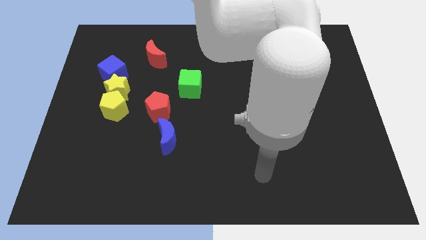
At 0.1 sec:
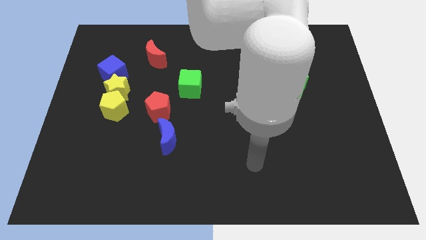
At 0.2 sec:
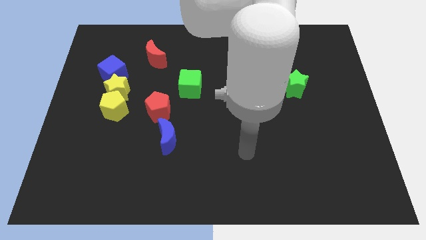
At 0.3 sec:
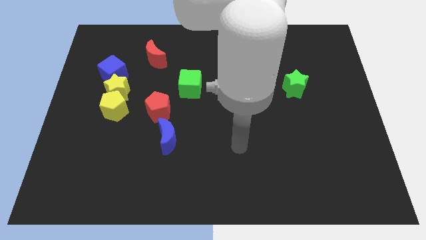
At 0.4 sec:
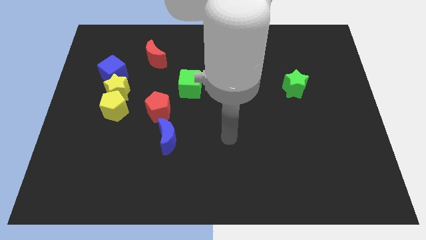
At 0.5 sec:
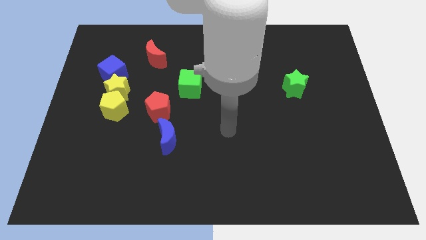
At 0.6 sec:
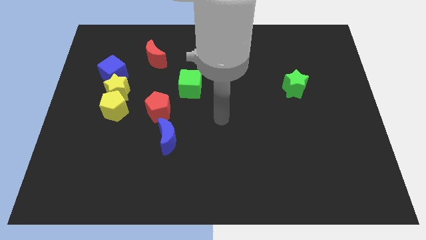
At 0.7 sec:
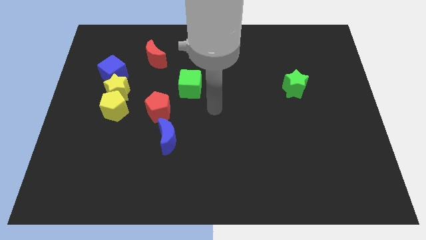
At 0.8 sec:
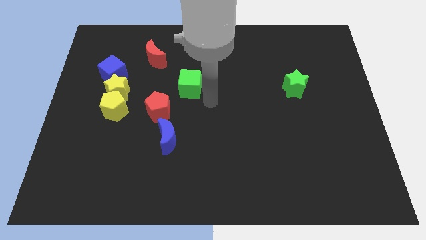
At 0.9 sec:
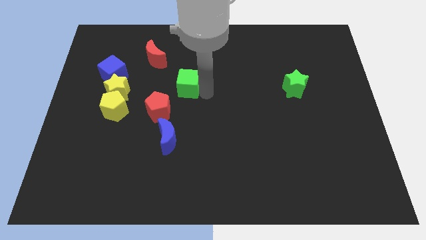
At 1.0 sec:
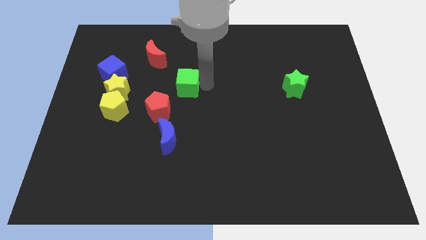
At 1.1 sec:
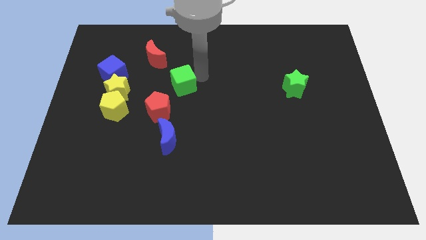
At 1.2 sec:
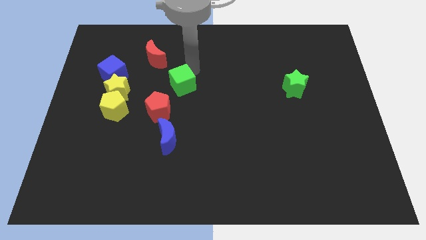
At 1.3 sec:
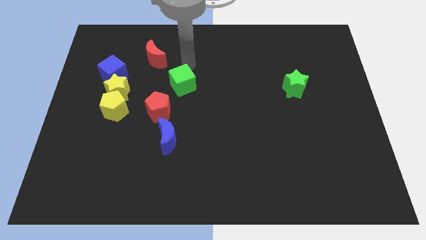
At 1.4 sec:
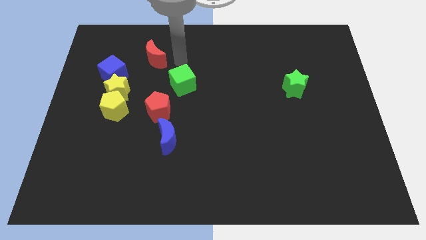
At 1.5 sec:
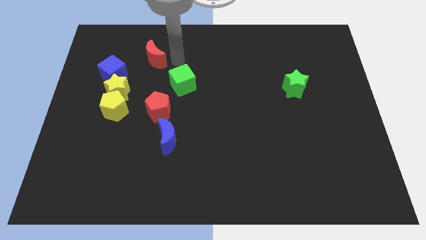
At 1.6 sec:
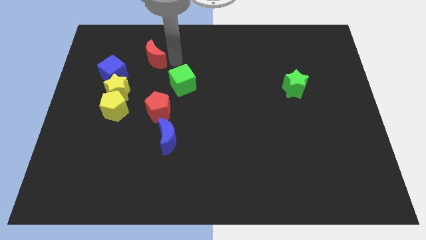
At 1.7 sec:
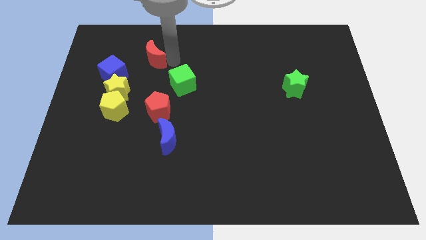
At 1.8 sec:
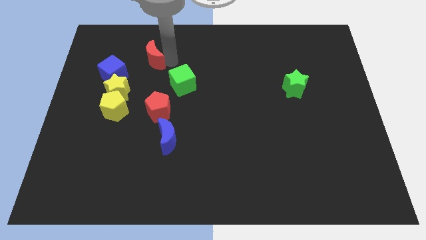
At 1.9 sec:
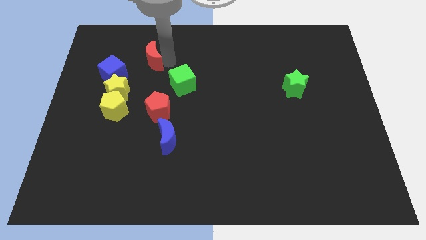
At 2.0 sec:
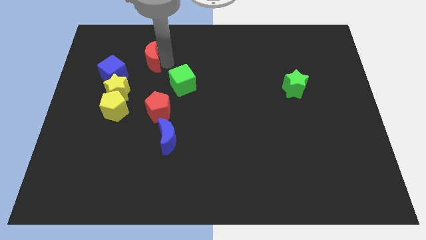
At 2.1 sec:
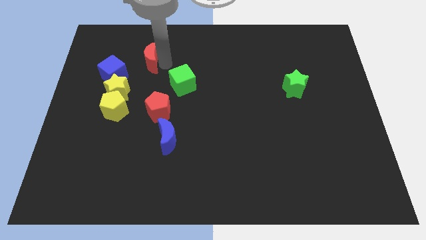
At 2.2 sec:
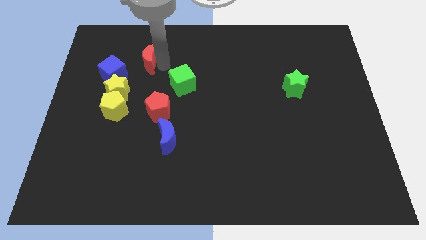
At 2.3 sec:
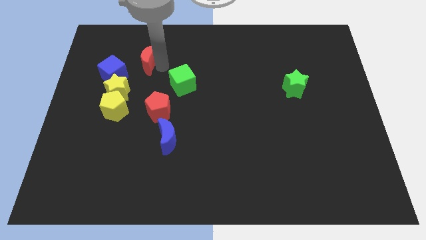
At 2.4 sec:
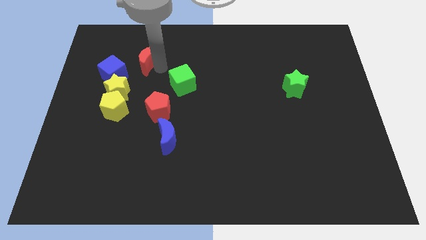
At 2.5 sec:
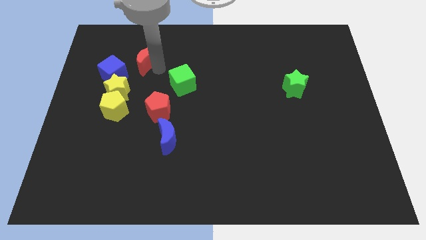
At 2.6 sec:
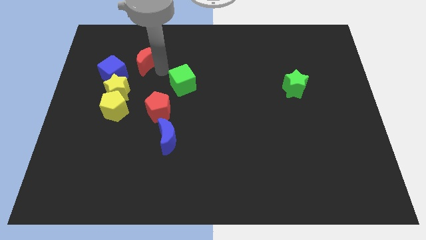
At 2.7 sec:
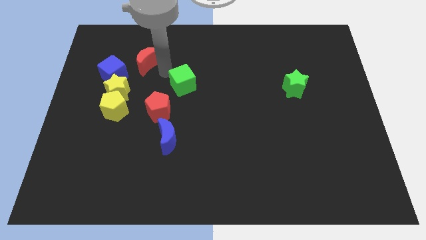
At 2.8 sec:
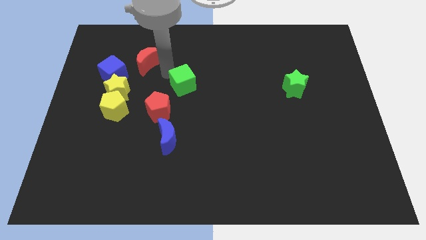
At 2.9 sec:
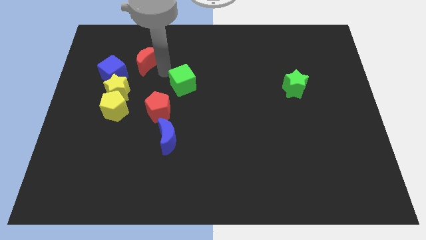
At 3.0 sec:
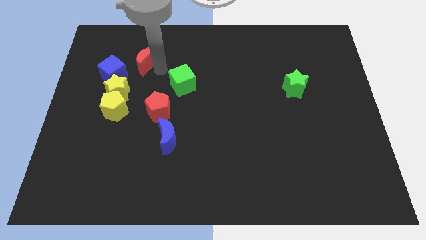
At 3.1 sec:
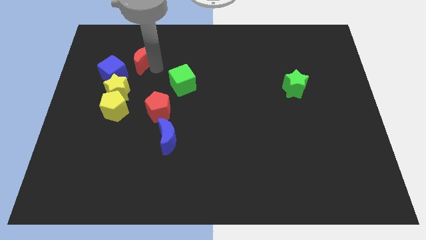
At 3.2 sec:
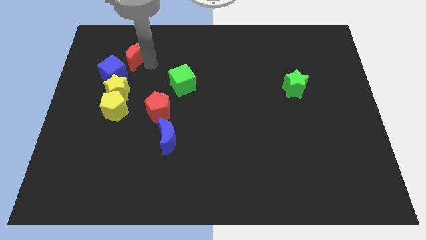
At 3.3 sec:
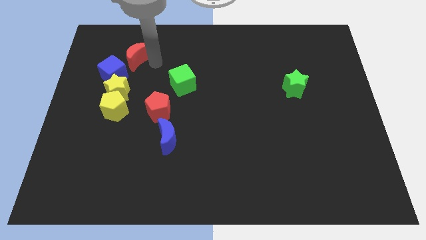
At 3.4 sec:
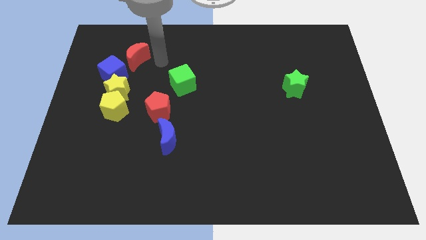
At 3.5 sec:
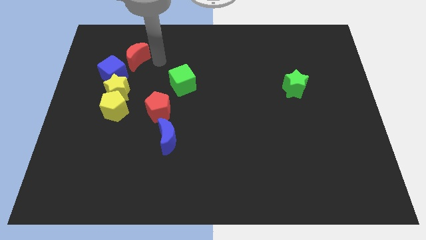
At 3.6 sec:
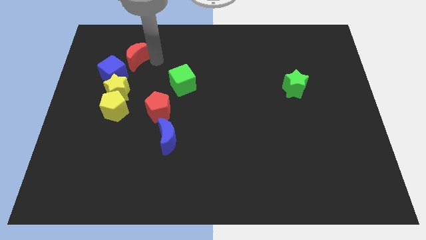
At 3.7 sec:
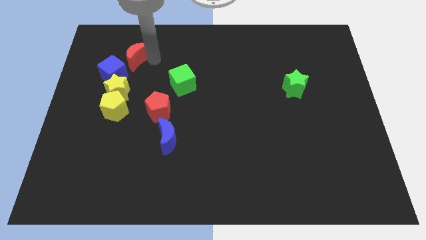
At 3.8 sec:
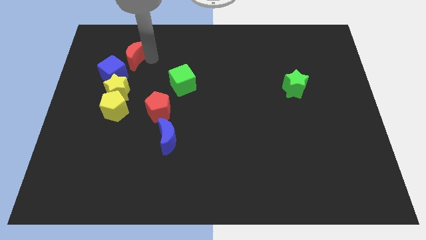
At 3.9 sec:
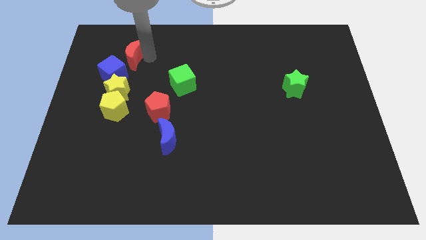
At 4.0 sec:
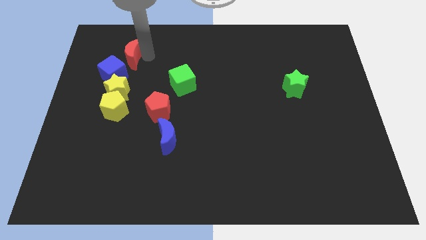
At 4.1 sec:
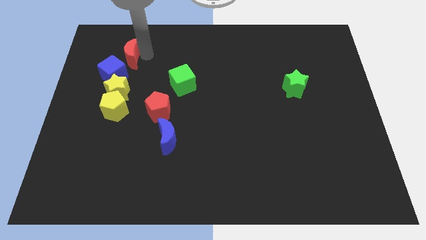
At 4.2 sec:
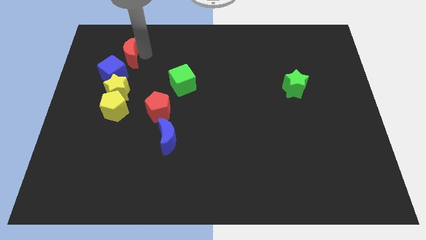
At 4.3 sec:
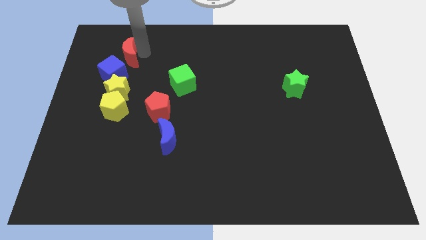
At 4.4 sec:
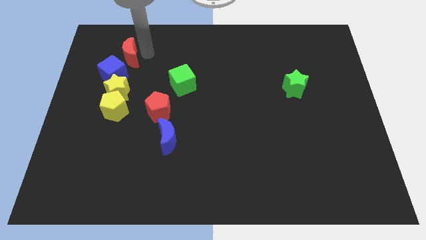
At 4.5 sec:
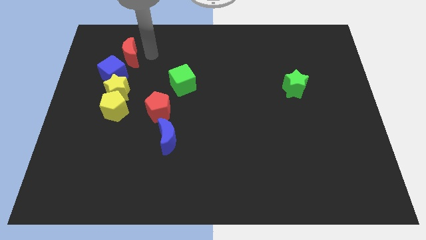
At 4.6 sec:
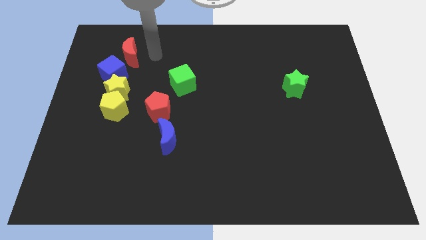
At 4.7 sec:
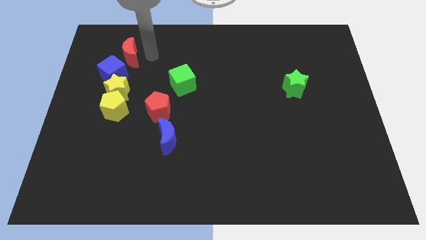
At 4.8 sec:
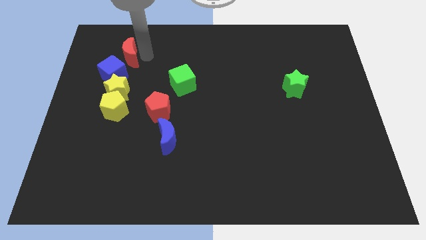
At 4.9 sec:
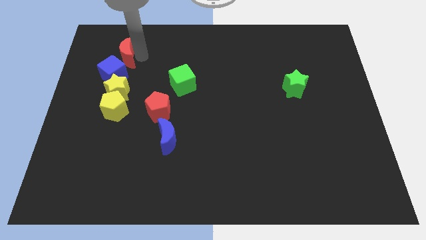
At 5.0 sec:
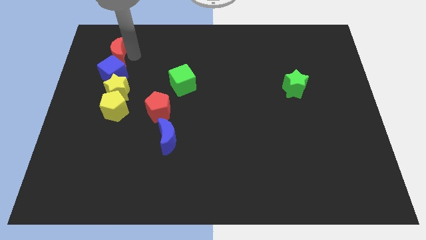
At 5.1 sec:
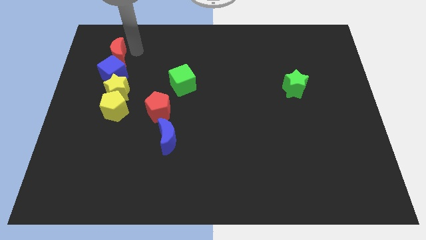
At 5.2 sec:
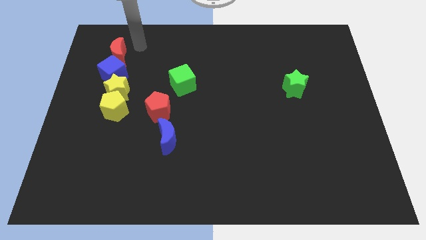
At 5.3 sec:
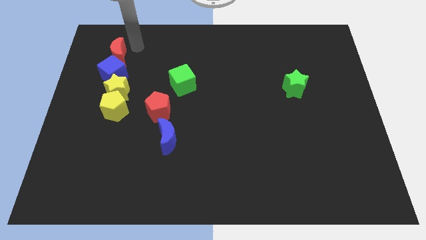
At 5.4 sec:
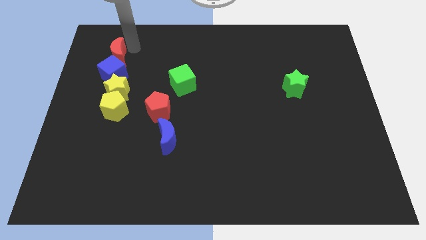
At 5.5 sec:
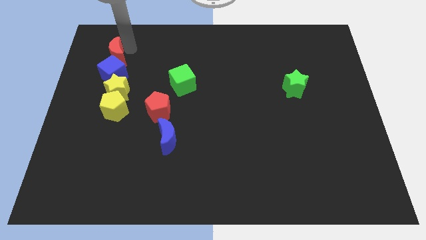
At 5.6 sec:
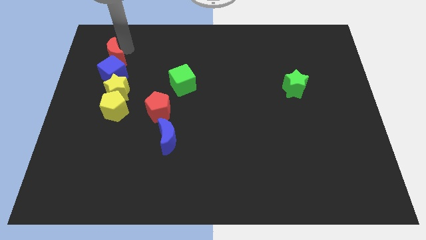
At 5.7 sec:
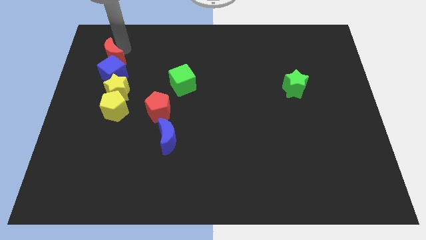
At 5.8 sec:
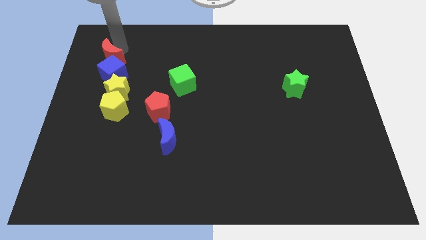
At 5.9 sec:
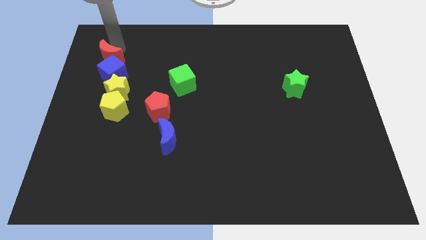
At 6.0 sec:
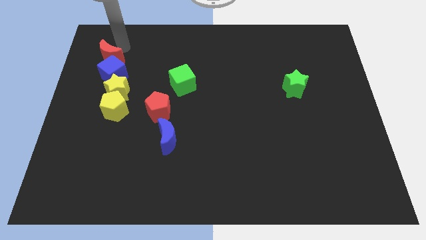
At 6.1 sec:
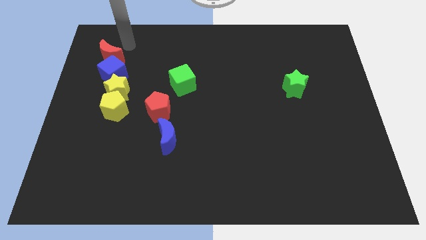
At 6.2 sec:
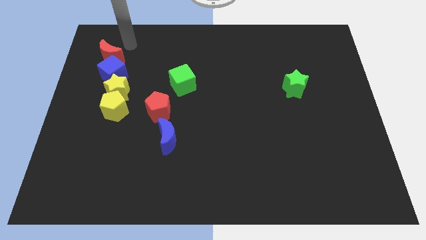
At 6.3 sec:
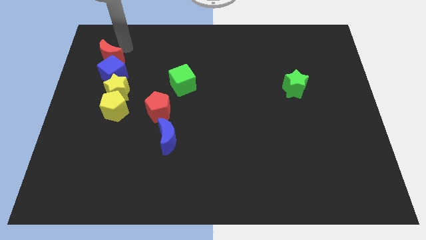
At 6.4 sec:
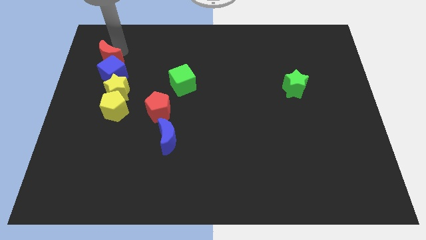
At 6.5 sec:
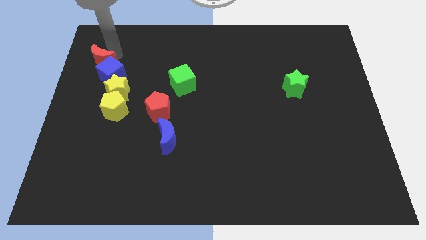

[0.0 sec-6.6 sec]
slightly slide the red moon down and to the left

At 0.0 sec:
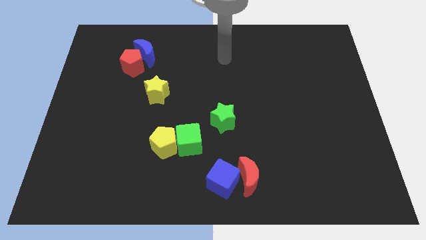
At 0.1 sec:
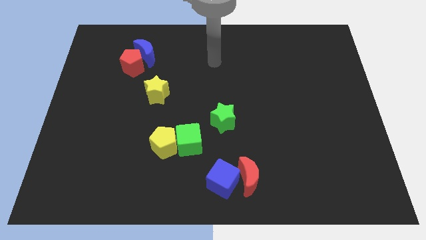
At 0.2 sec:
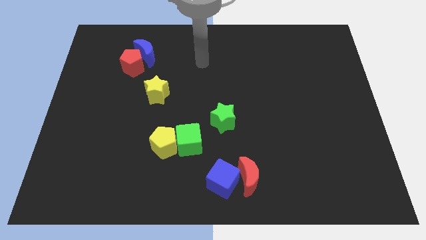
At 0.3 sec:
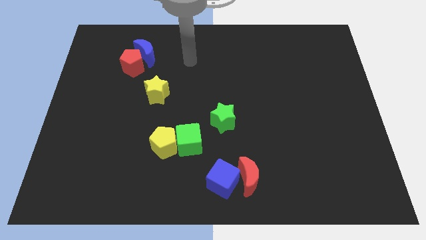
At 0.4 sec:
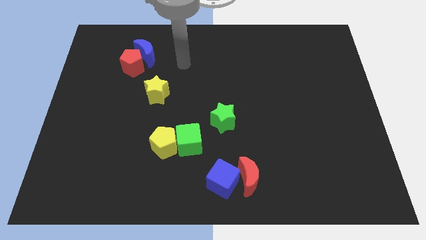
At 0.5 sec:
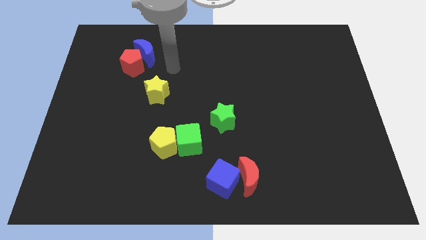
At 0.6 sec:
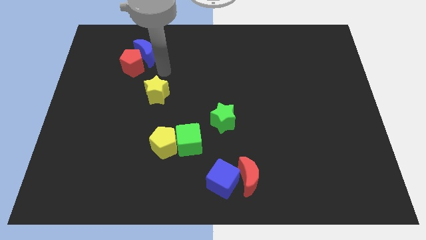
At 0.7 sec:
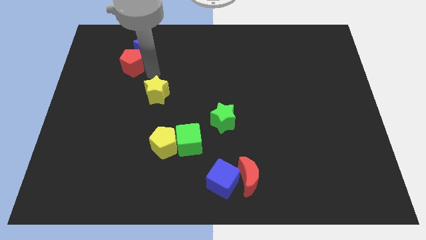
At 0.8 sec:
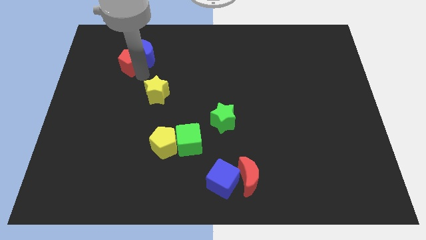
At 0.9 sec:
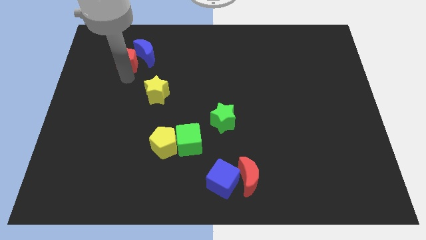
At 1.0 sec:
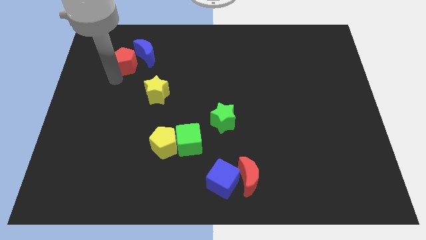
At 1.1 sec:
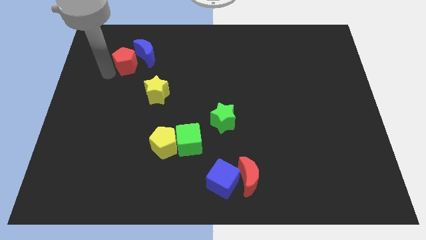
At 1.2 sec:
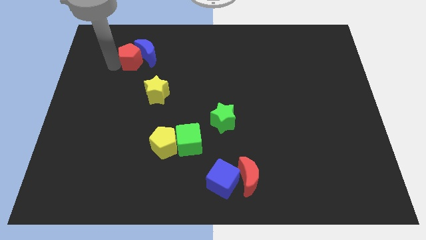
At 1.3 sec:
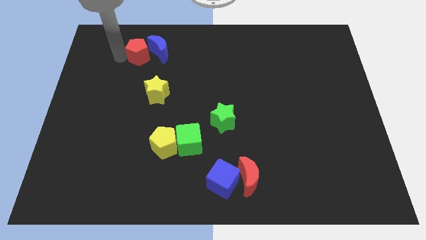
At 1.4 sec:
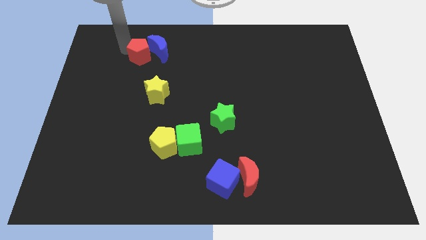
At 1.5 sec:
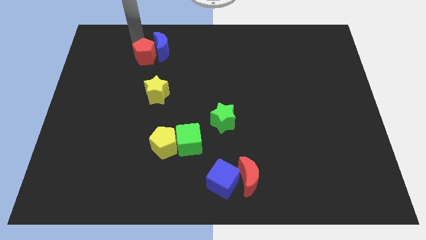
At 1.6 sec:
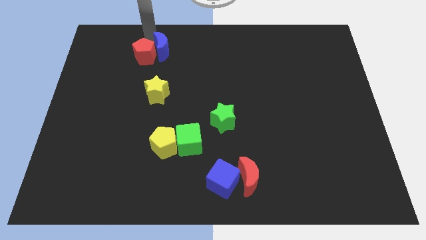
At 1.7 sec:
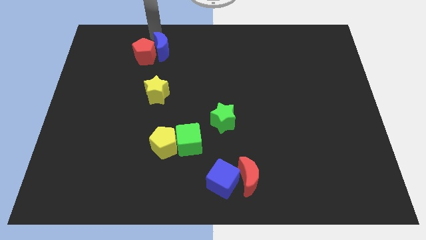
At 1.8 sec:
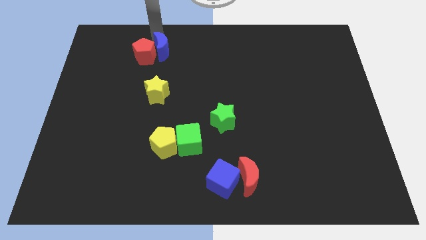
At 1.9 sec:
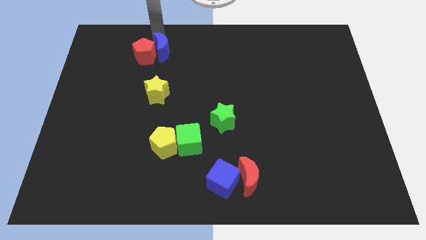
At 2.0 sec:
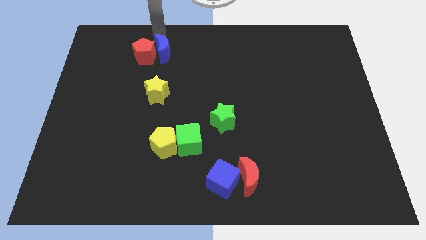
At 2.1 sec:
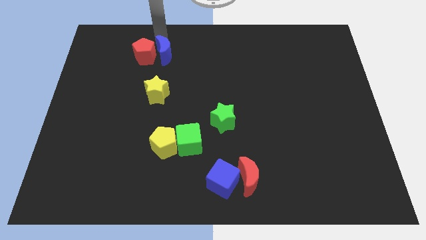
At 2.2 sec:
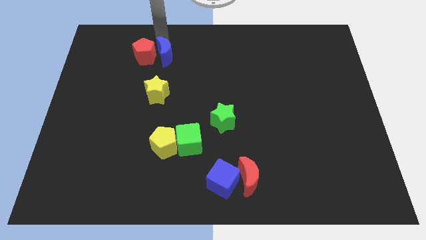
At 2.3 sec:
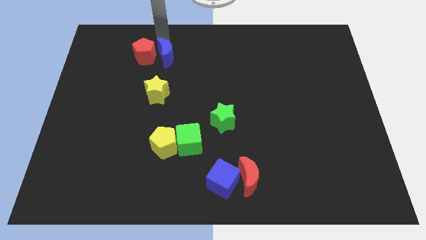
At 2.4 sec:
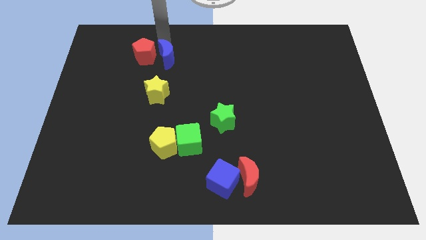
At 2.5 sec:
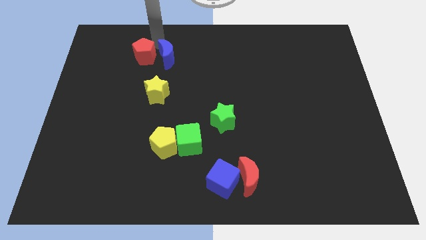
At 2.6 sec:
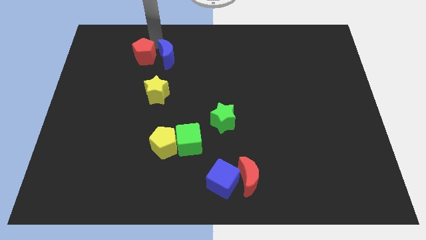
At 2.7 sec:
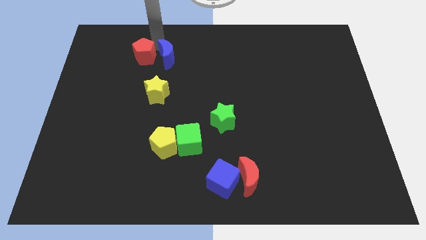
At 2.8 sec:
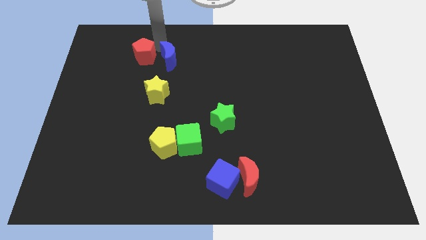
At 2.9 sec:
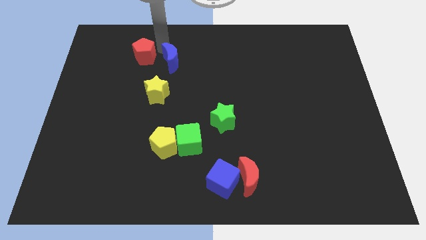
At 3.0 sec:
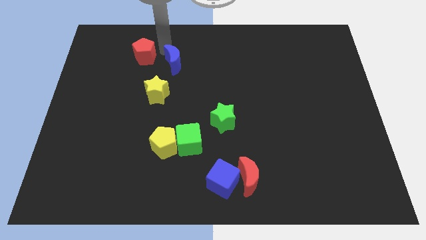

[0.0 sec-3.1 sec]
move the blue moon diagonally down and to the right a bit
